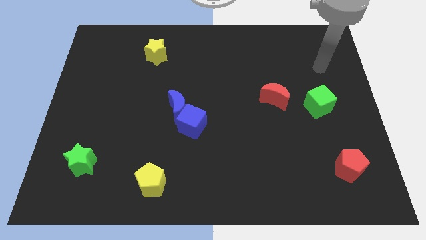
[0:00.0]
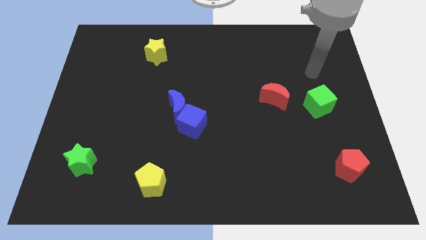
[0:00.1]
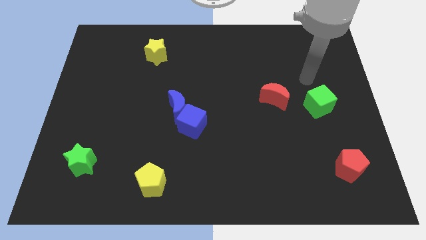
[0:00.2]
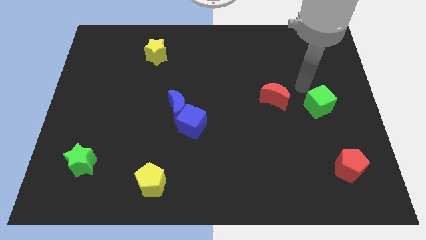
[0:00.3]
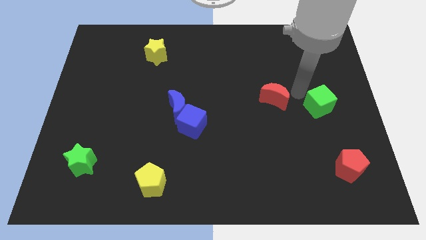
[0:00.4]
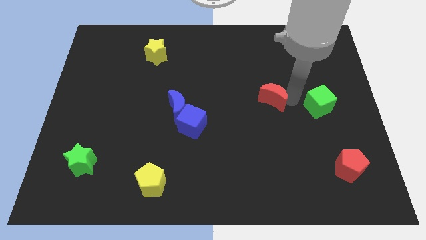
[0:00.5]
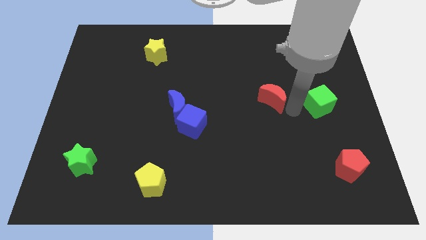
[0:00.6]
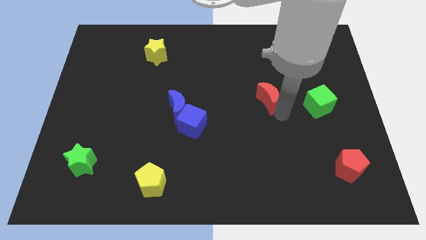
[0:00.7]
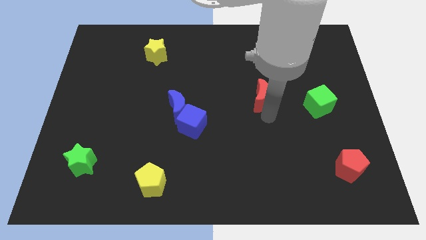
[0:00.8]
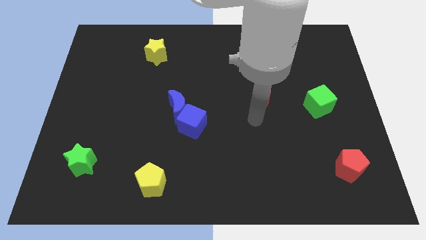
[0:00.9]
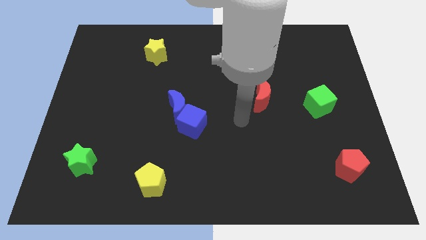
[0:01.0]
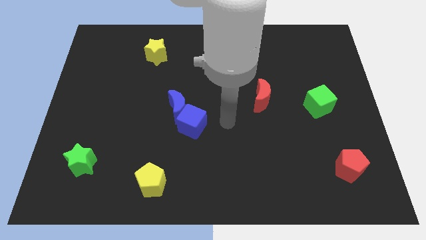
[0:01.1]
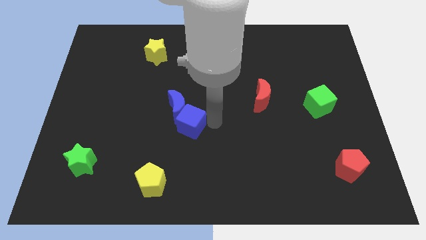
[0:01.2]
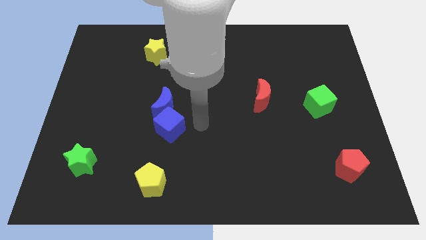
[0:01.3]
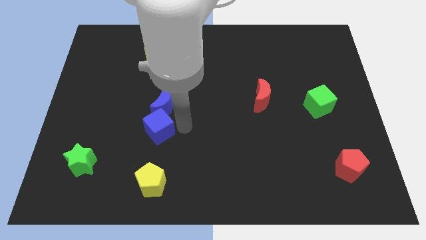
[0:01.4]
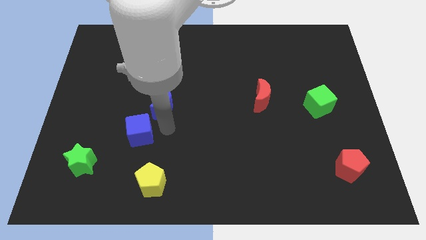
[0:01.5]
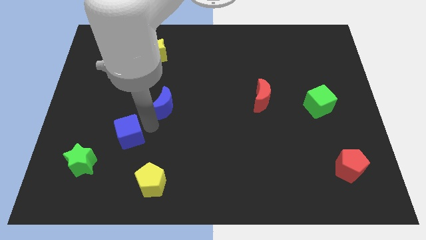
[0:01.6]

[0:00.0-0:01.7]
pull the blue moon apart from the blue cube

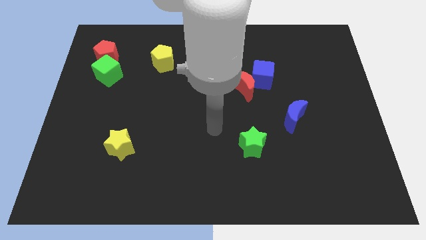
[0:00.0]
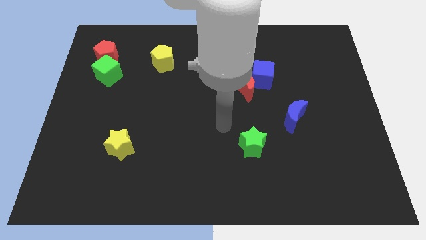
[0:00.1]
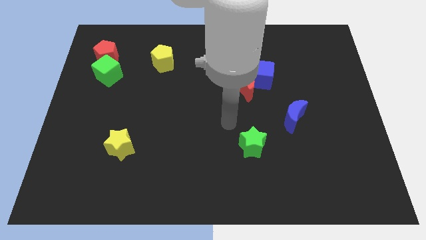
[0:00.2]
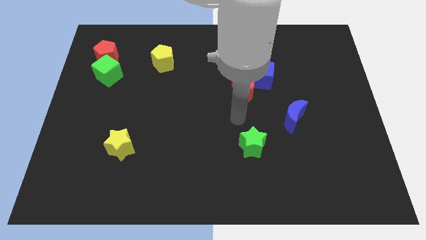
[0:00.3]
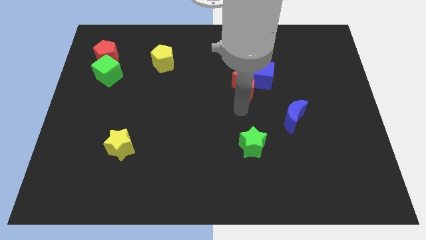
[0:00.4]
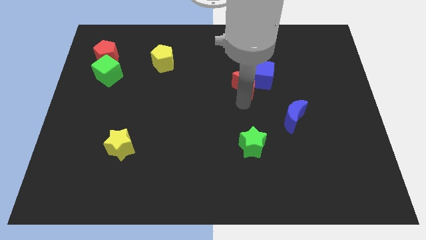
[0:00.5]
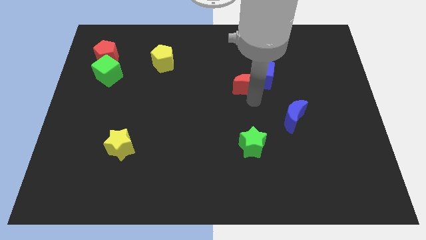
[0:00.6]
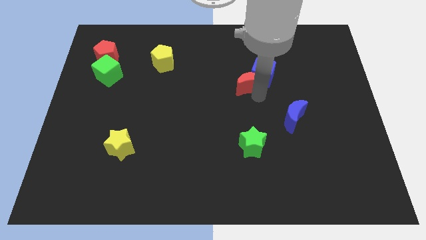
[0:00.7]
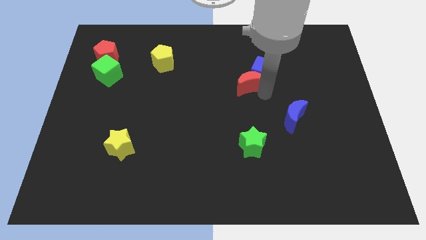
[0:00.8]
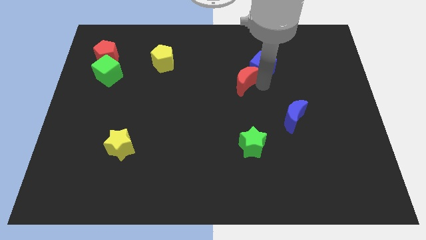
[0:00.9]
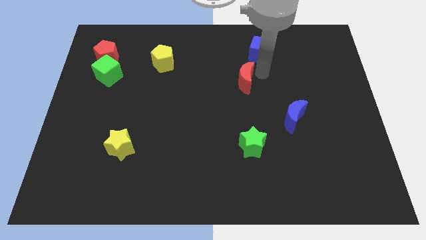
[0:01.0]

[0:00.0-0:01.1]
pull the red moon apart from the blue cube

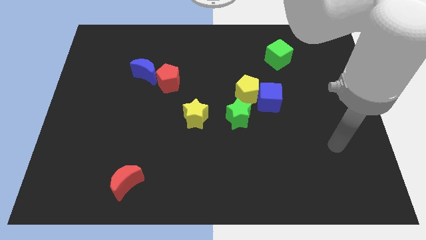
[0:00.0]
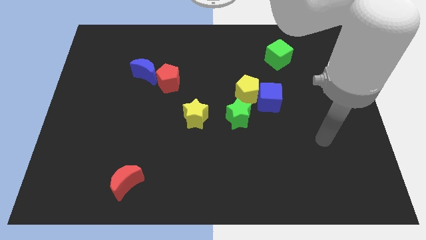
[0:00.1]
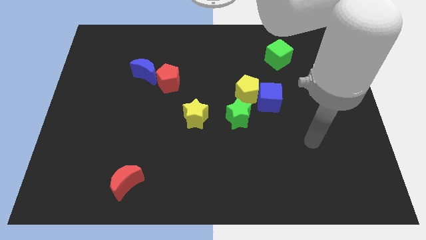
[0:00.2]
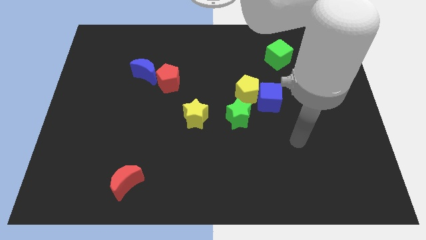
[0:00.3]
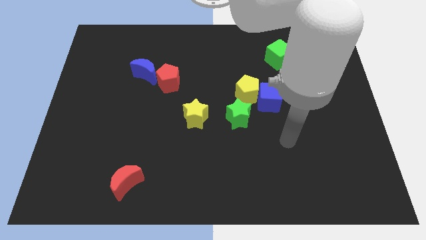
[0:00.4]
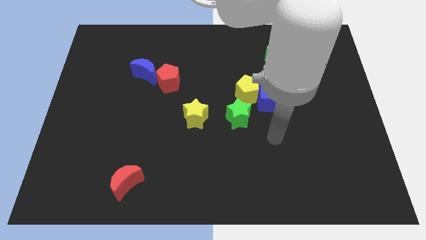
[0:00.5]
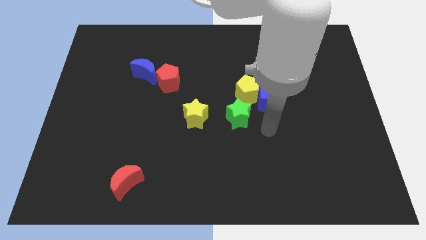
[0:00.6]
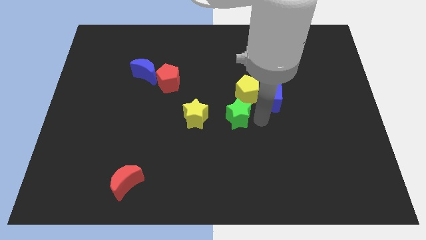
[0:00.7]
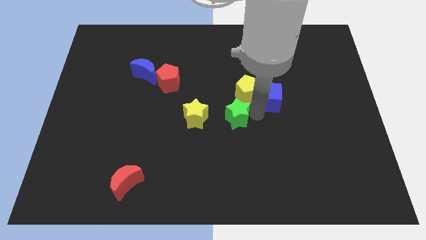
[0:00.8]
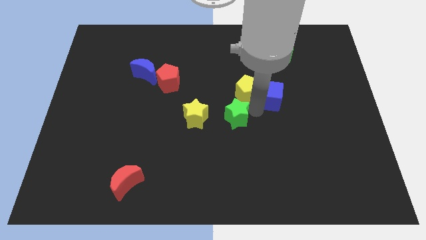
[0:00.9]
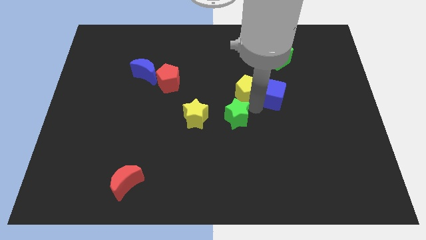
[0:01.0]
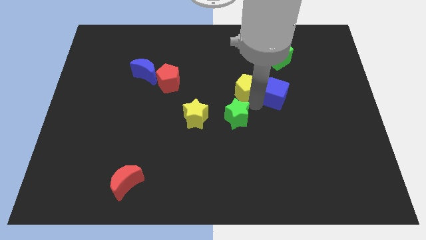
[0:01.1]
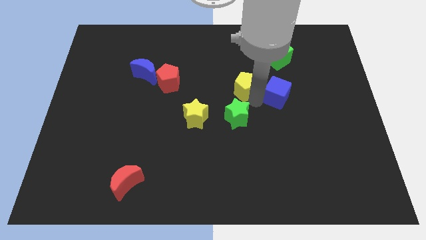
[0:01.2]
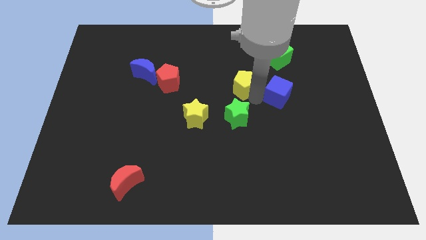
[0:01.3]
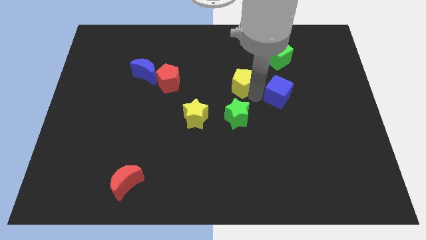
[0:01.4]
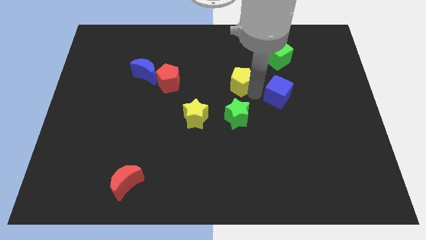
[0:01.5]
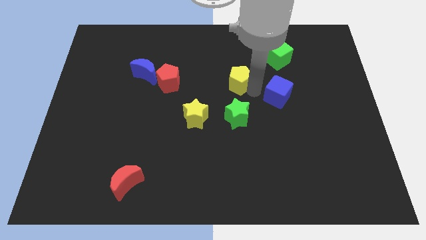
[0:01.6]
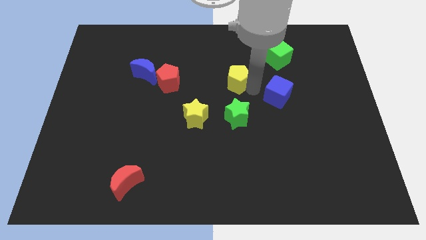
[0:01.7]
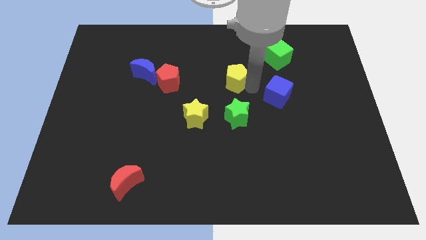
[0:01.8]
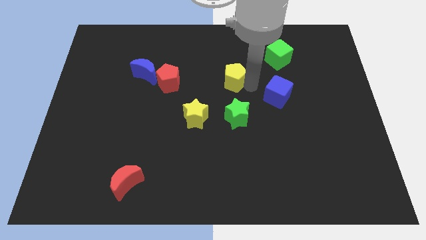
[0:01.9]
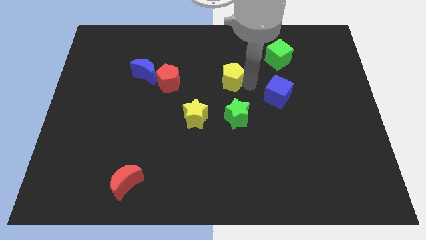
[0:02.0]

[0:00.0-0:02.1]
separate the yellow pentagon from the blue cube and green star

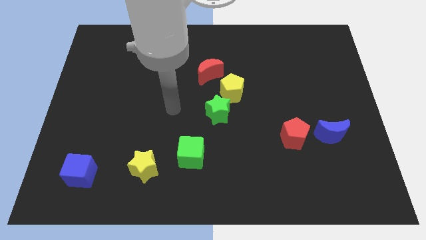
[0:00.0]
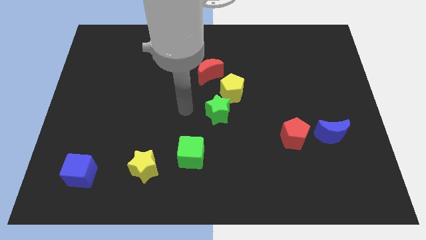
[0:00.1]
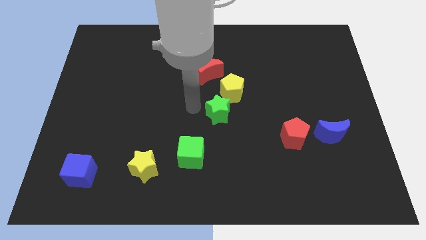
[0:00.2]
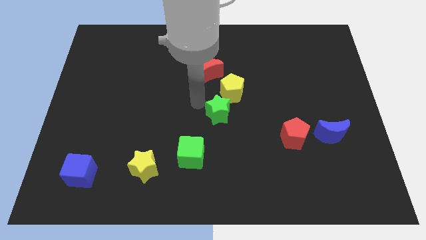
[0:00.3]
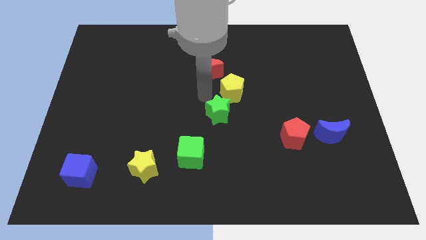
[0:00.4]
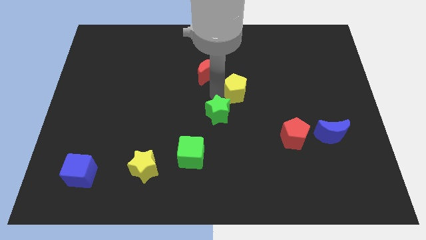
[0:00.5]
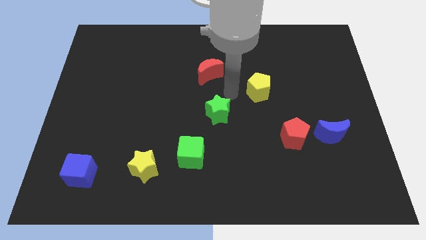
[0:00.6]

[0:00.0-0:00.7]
pull the green star apart from the yellow pentagon

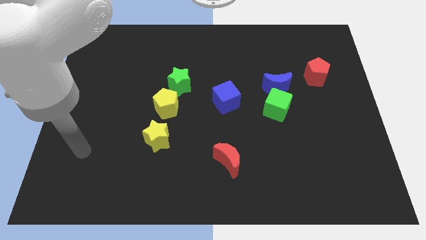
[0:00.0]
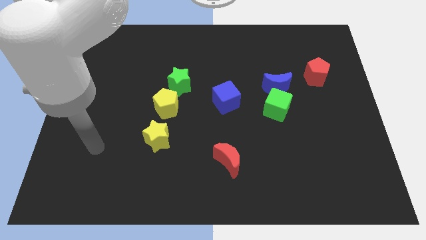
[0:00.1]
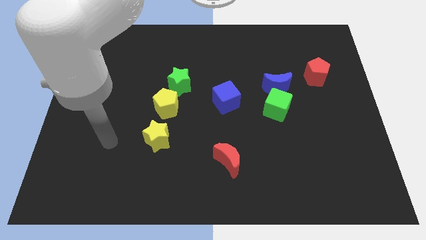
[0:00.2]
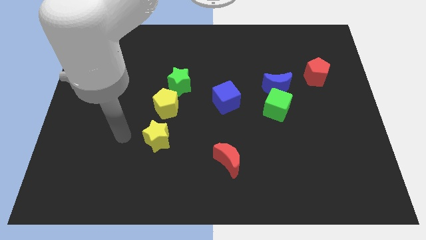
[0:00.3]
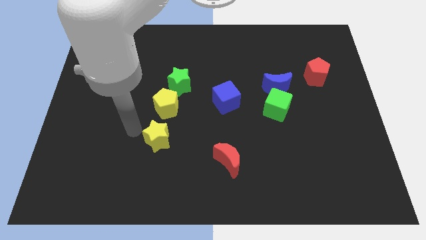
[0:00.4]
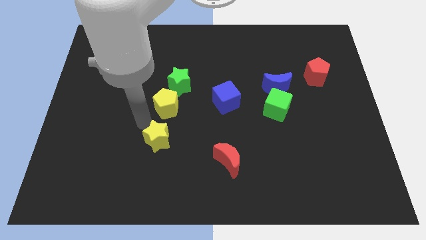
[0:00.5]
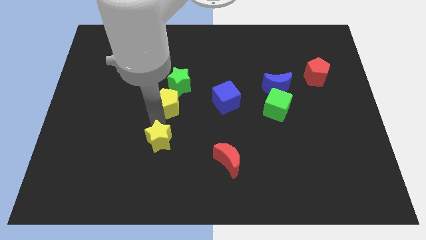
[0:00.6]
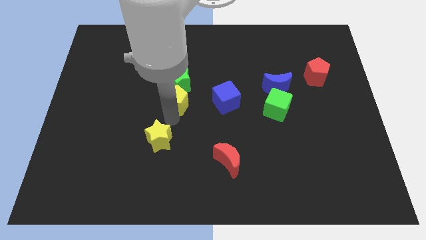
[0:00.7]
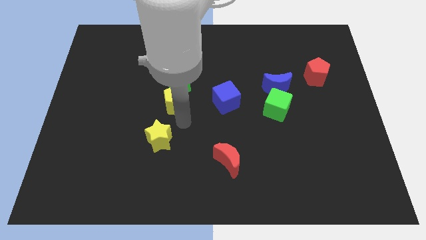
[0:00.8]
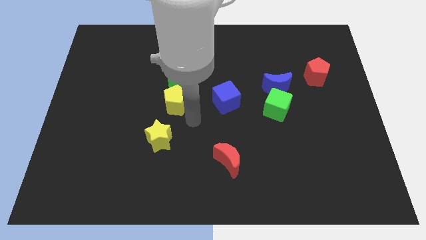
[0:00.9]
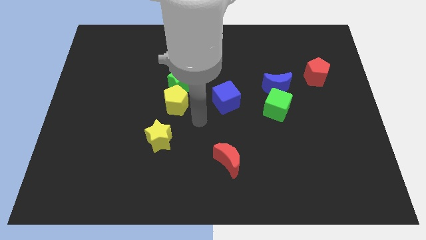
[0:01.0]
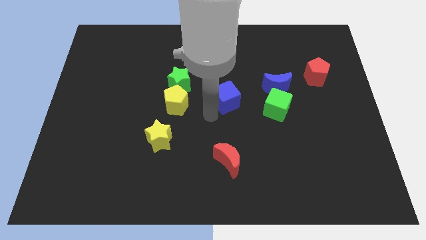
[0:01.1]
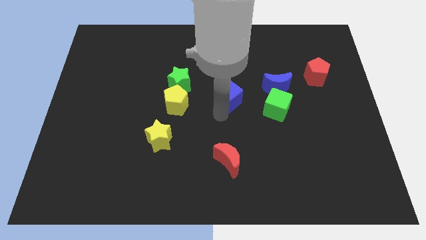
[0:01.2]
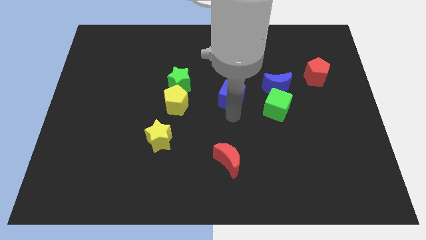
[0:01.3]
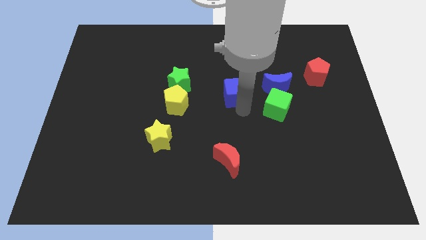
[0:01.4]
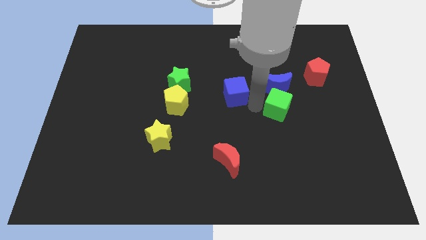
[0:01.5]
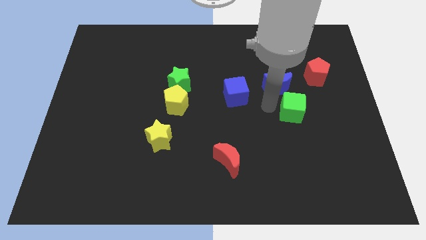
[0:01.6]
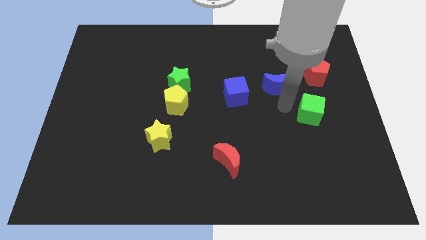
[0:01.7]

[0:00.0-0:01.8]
pull the blue moon apart from the green cube

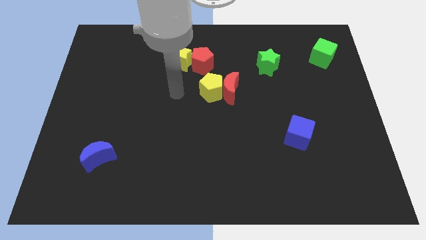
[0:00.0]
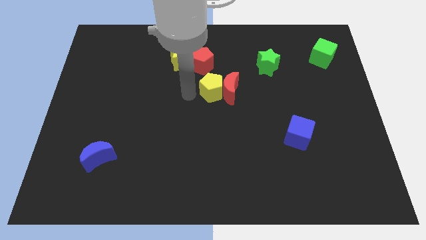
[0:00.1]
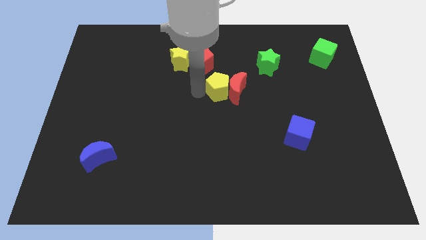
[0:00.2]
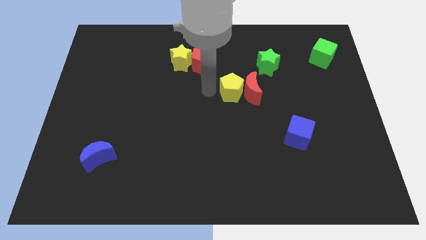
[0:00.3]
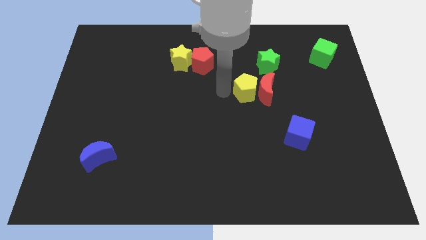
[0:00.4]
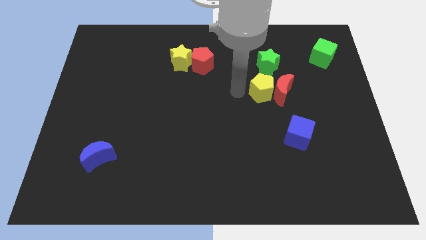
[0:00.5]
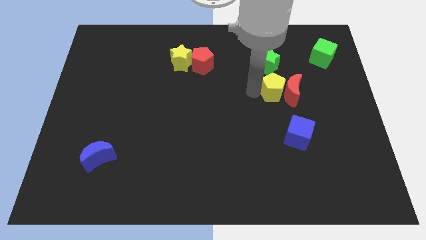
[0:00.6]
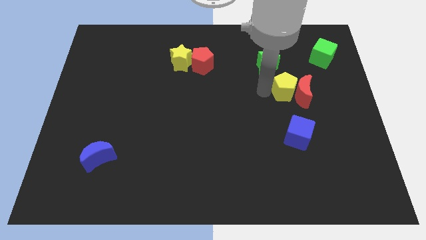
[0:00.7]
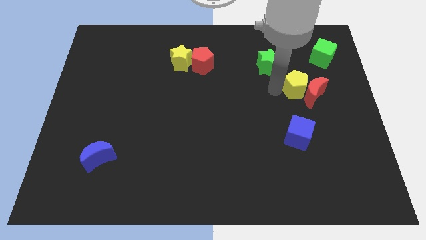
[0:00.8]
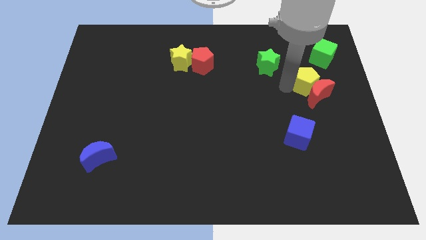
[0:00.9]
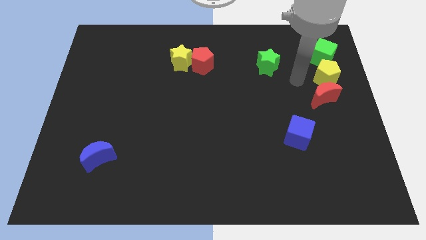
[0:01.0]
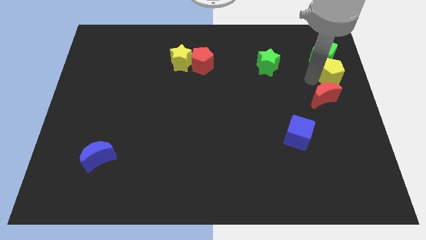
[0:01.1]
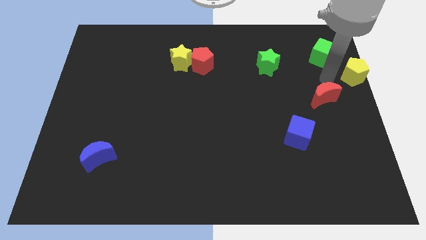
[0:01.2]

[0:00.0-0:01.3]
separate the red moon from the yellow pentagon

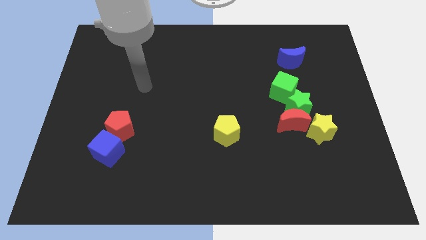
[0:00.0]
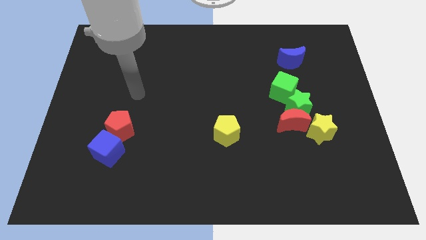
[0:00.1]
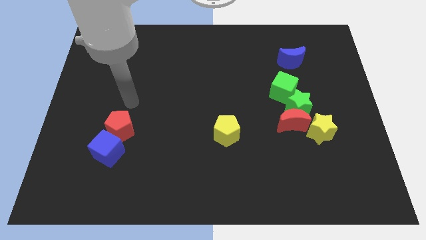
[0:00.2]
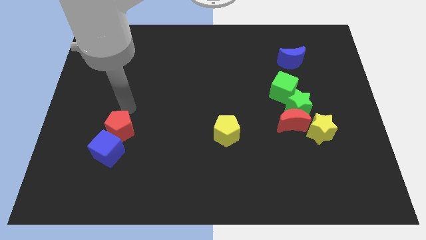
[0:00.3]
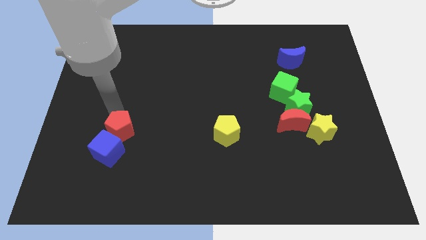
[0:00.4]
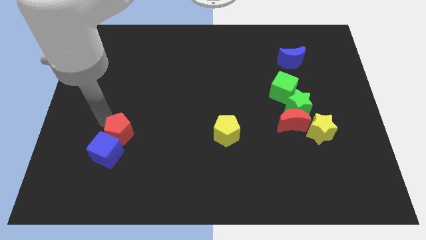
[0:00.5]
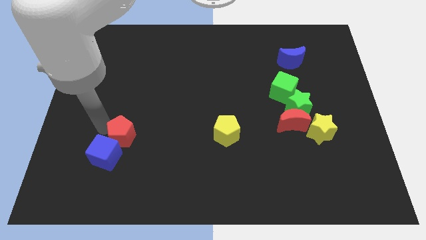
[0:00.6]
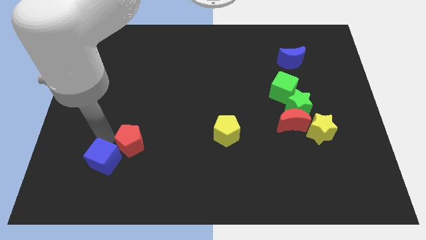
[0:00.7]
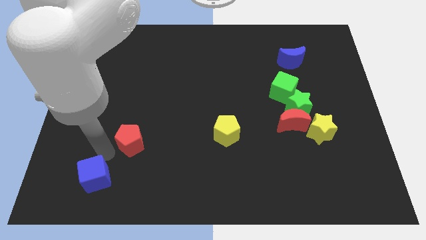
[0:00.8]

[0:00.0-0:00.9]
move the red pentagon away from the blue cube
